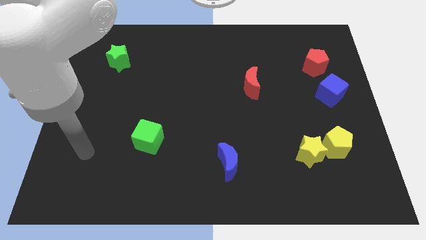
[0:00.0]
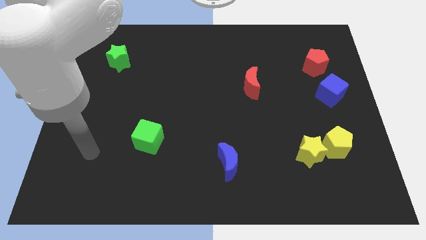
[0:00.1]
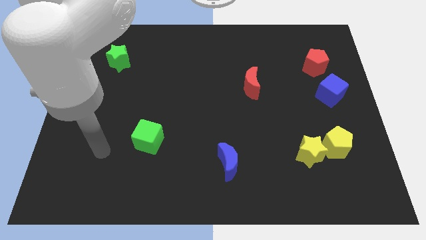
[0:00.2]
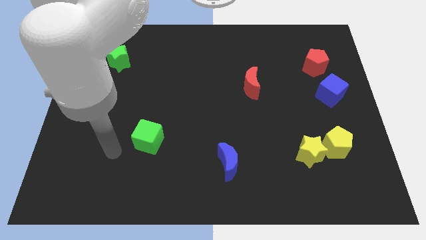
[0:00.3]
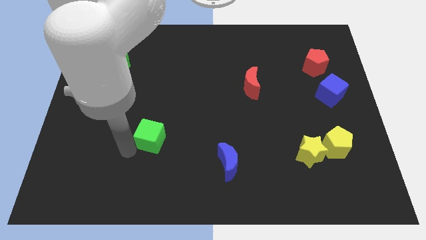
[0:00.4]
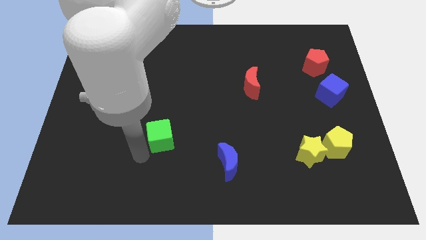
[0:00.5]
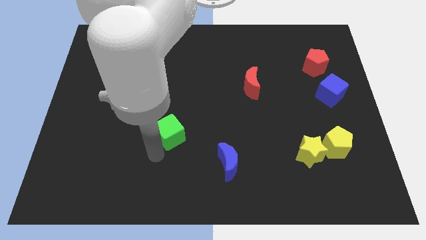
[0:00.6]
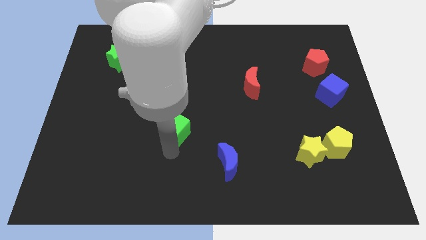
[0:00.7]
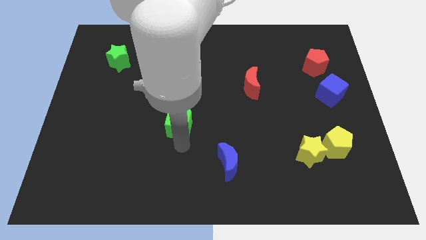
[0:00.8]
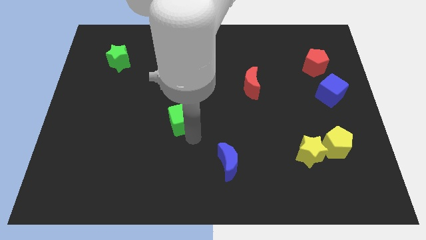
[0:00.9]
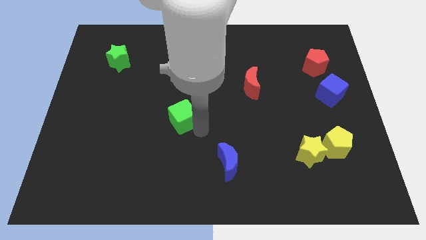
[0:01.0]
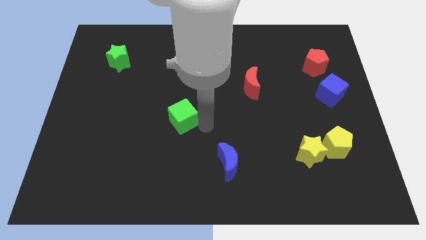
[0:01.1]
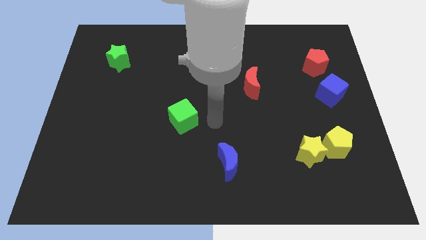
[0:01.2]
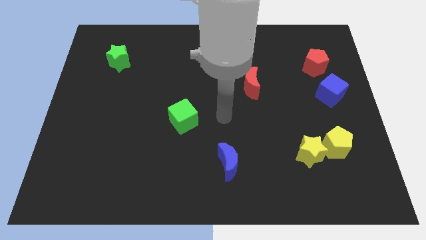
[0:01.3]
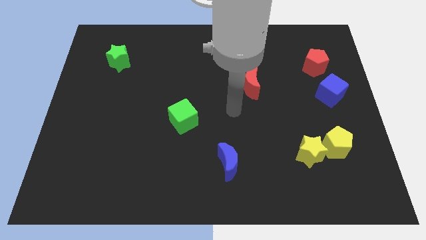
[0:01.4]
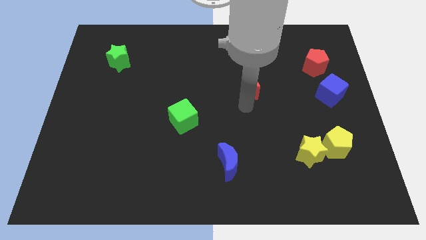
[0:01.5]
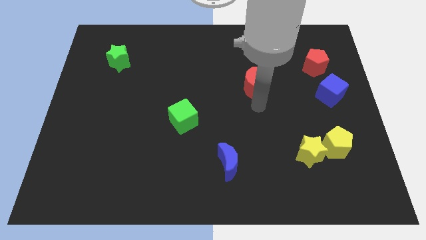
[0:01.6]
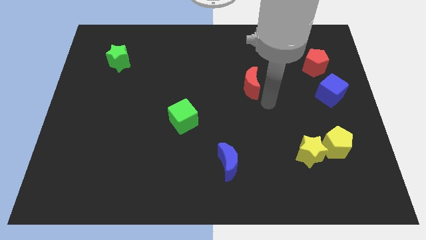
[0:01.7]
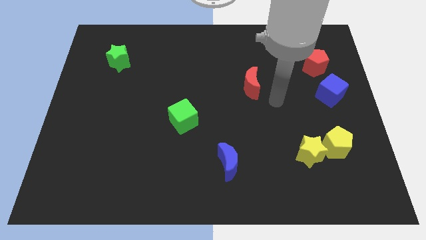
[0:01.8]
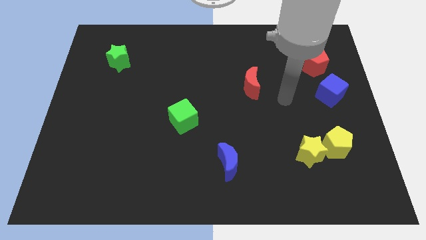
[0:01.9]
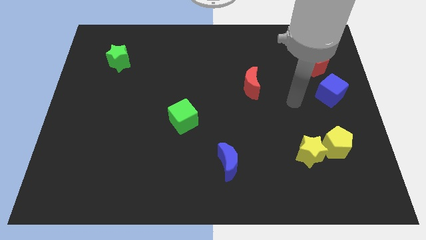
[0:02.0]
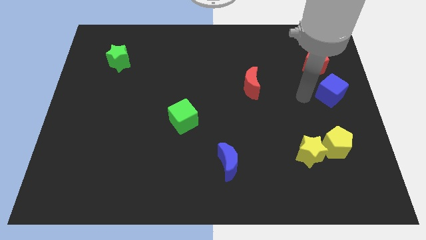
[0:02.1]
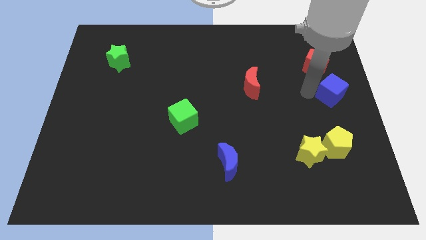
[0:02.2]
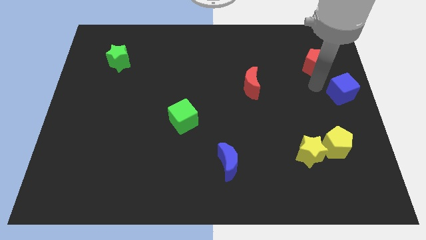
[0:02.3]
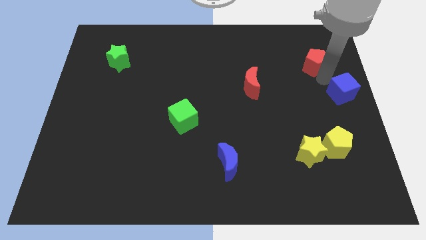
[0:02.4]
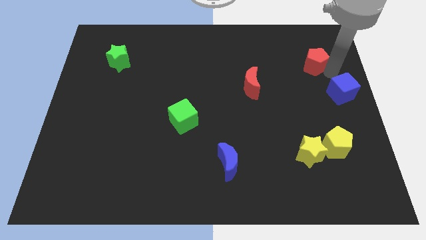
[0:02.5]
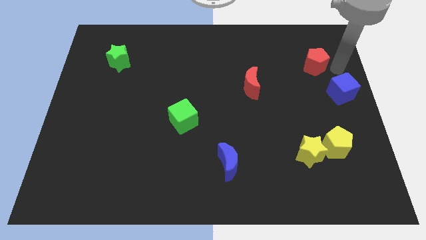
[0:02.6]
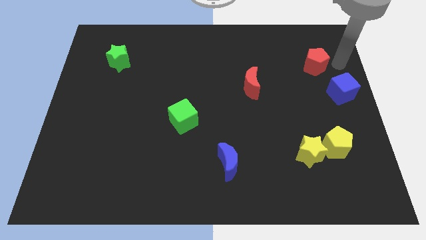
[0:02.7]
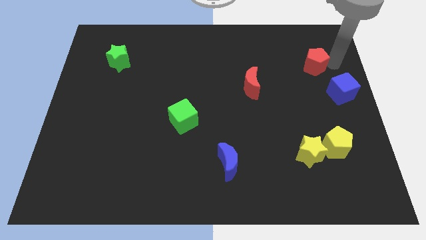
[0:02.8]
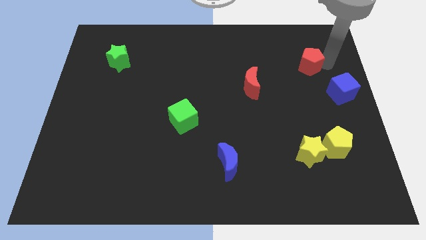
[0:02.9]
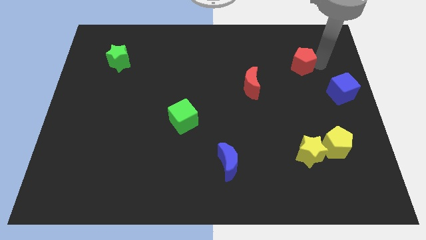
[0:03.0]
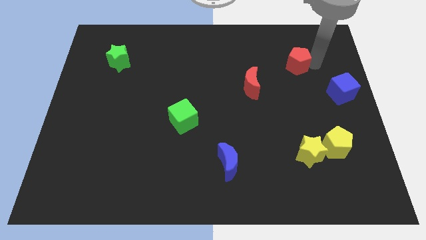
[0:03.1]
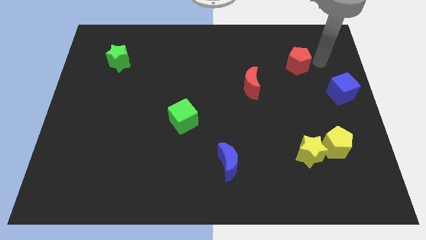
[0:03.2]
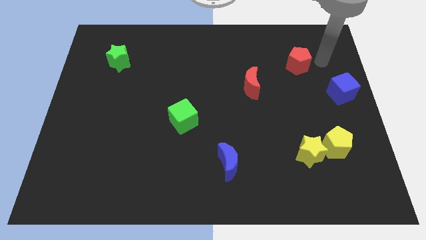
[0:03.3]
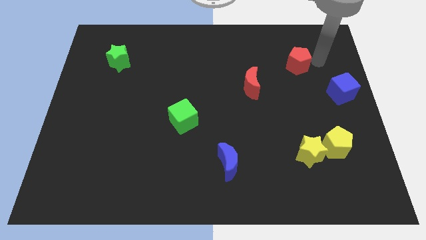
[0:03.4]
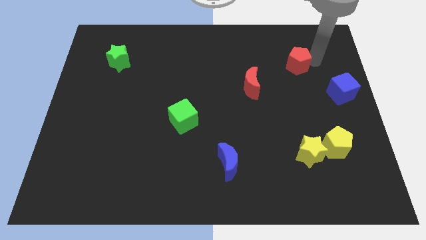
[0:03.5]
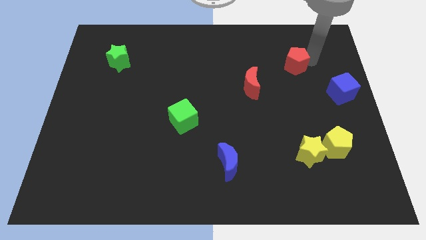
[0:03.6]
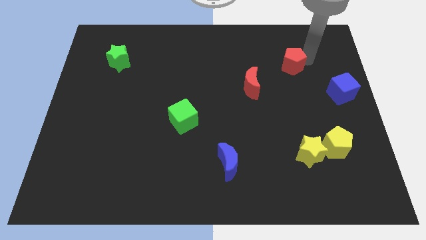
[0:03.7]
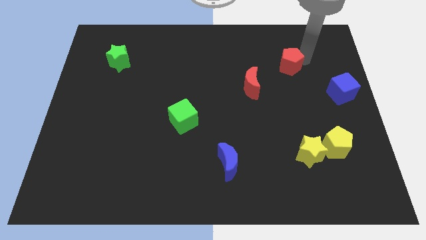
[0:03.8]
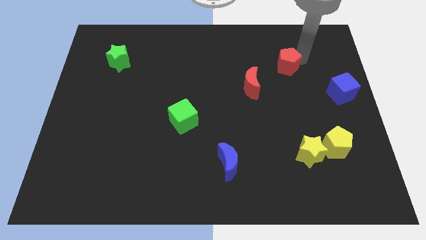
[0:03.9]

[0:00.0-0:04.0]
slightly move the red pentagon to the left

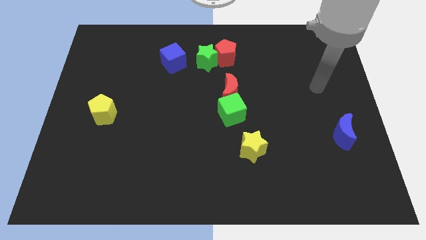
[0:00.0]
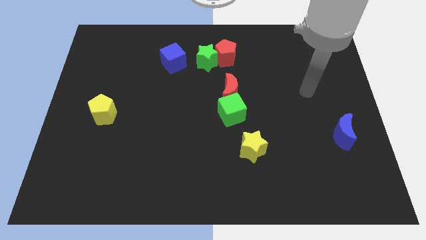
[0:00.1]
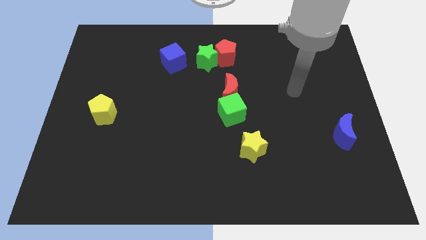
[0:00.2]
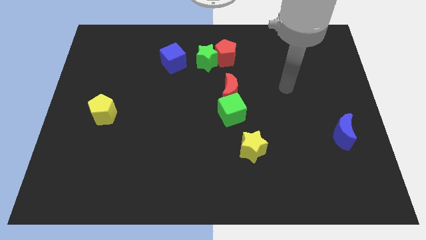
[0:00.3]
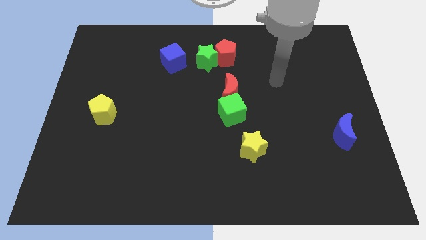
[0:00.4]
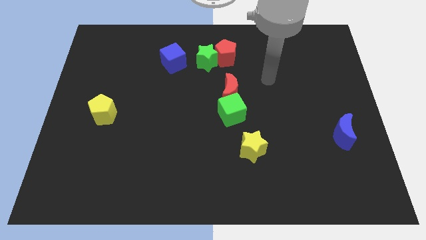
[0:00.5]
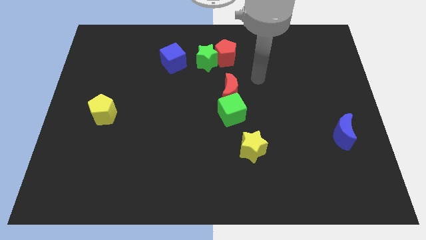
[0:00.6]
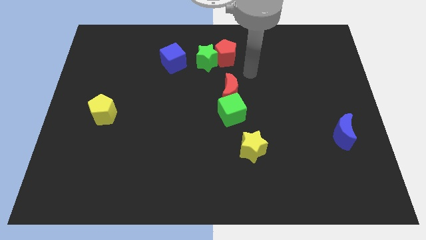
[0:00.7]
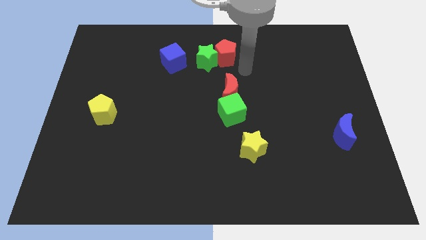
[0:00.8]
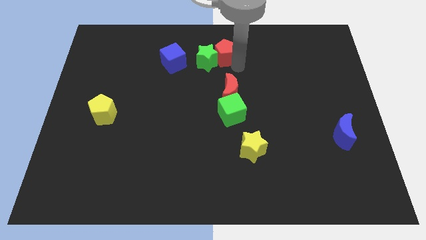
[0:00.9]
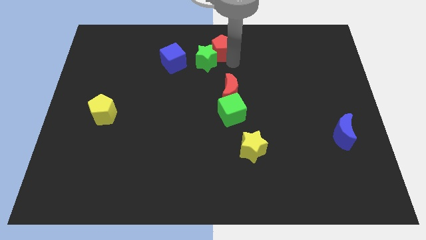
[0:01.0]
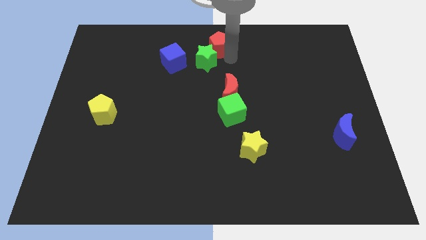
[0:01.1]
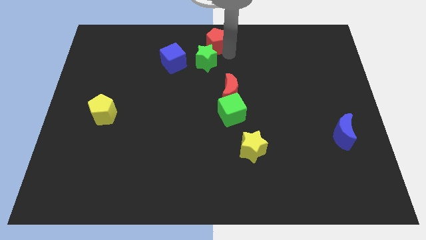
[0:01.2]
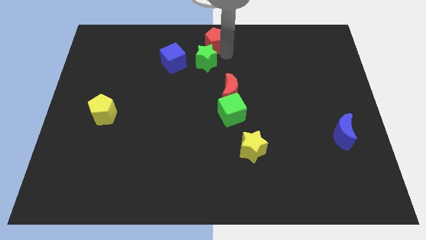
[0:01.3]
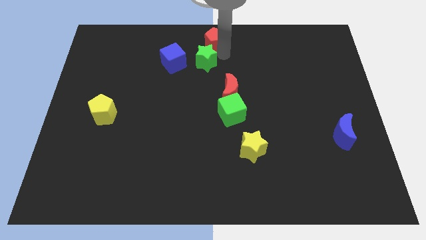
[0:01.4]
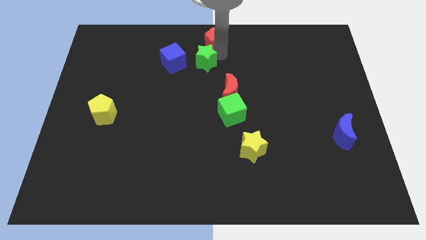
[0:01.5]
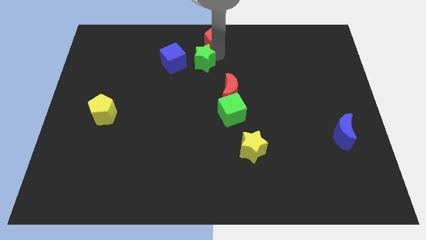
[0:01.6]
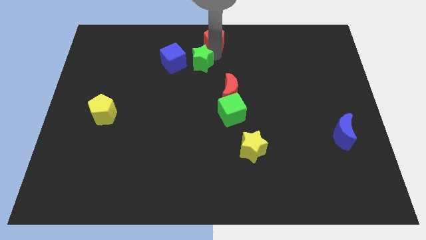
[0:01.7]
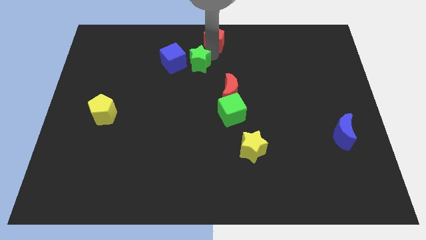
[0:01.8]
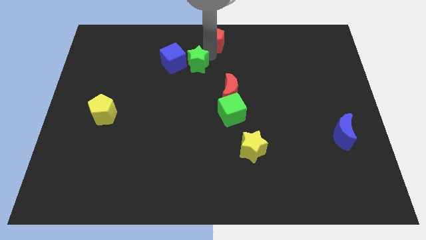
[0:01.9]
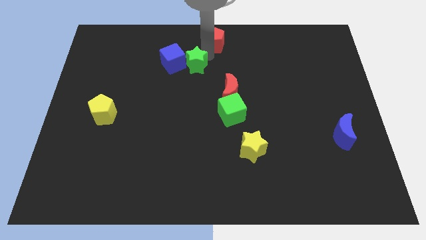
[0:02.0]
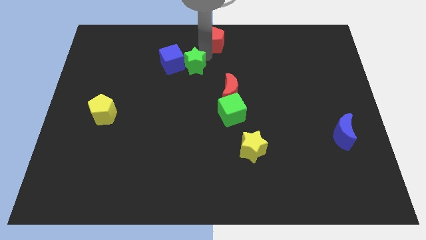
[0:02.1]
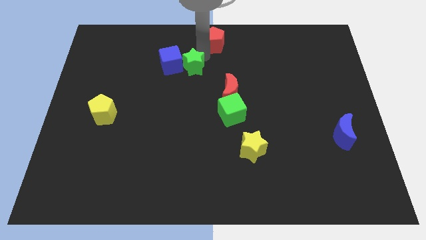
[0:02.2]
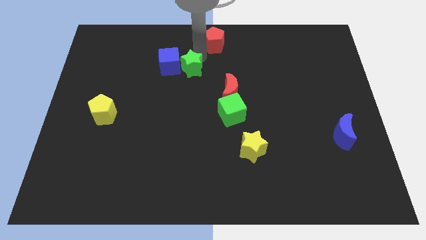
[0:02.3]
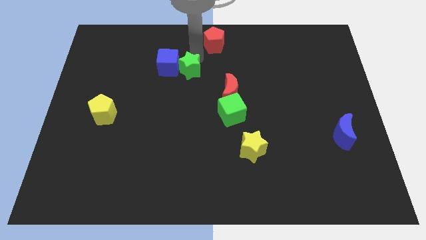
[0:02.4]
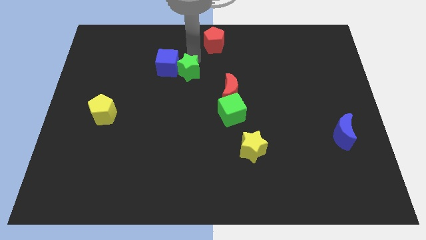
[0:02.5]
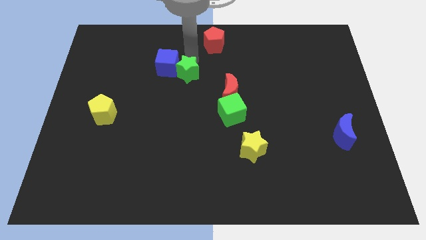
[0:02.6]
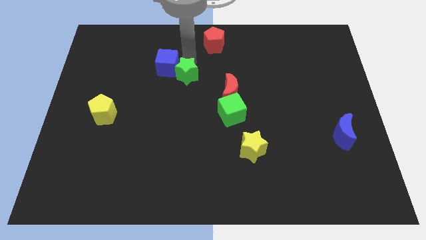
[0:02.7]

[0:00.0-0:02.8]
slide the green star slightly downwards and left diagonally

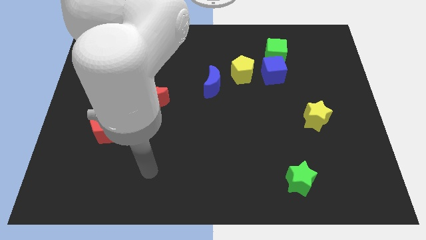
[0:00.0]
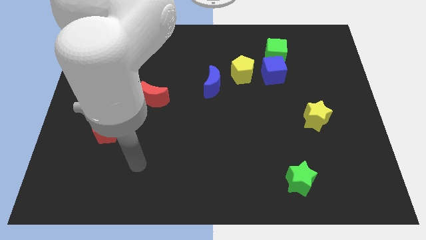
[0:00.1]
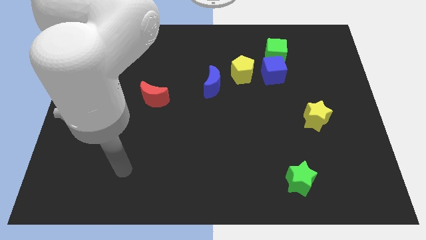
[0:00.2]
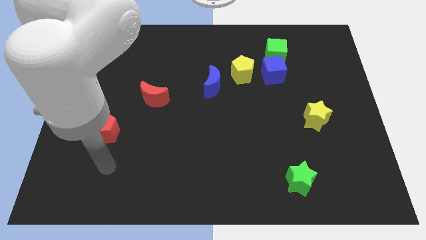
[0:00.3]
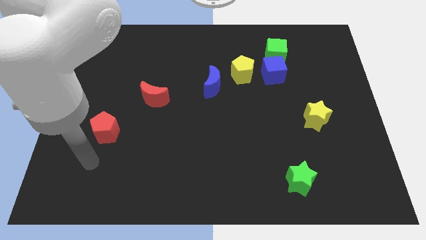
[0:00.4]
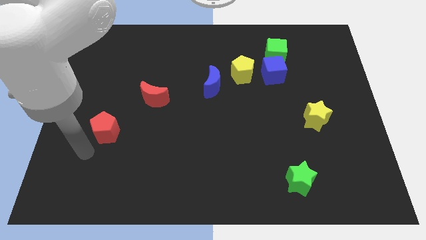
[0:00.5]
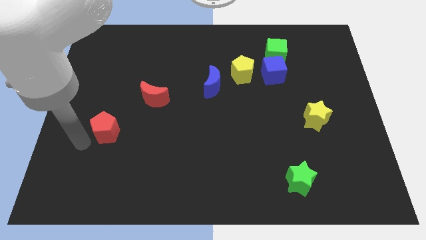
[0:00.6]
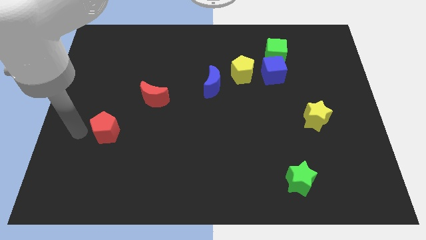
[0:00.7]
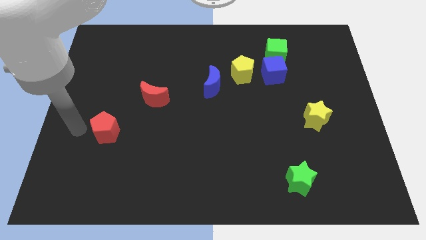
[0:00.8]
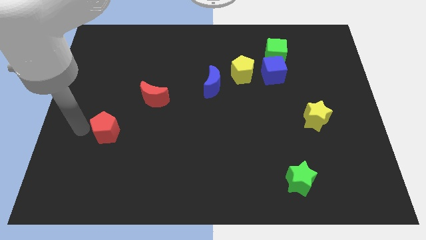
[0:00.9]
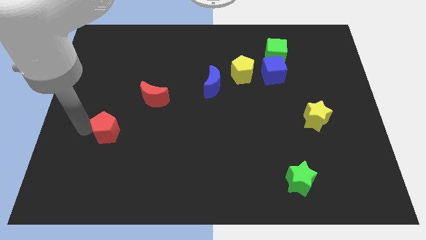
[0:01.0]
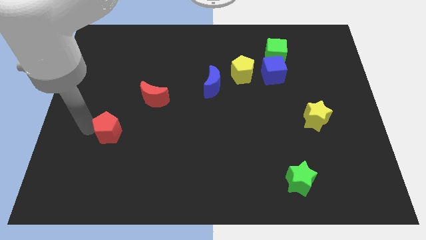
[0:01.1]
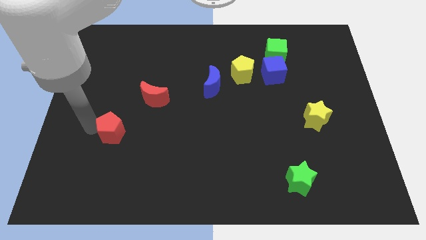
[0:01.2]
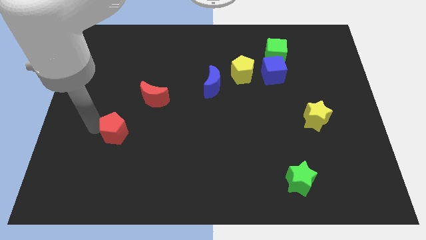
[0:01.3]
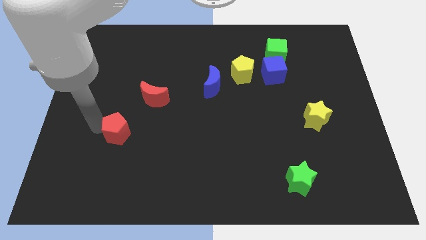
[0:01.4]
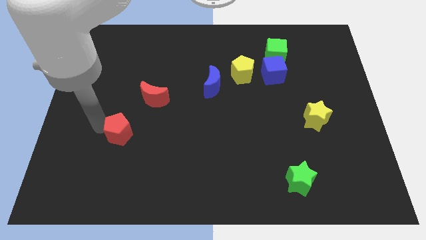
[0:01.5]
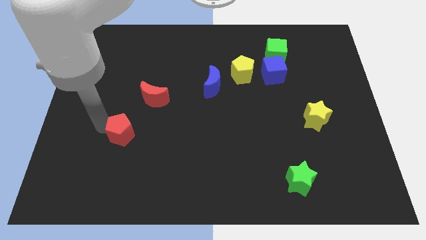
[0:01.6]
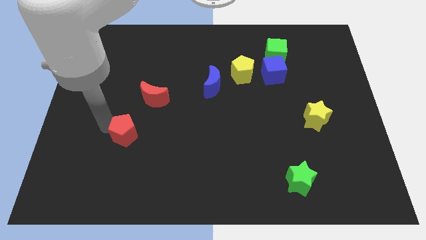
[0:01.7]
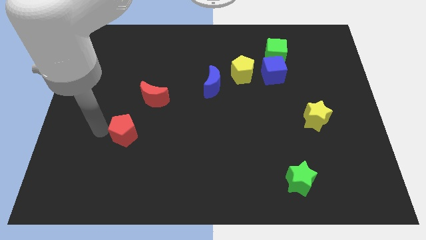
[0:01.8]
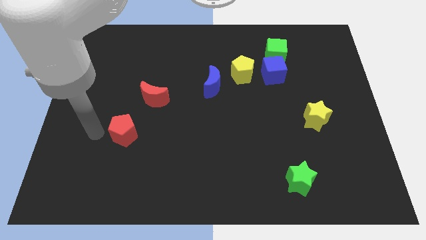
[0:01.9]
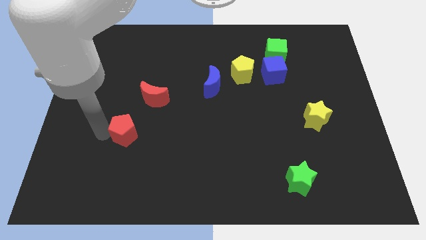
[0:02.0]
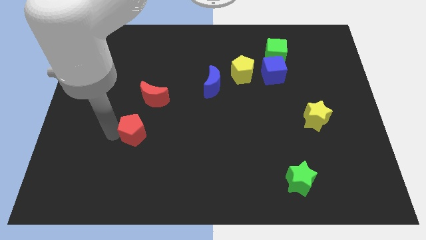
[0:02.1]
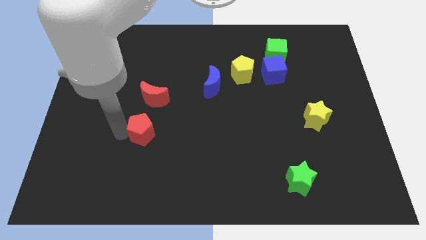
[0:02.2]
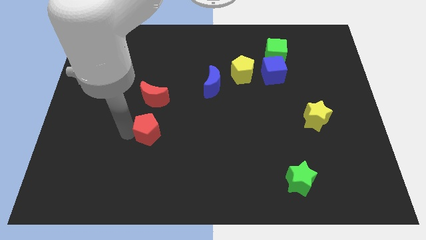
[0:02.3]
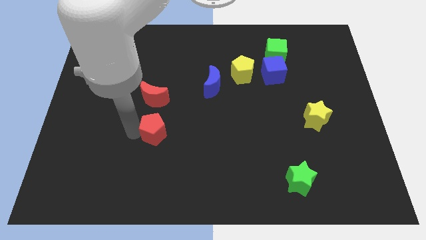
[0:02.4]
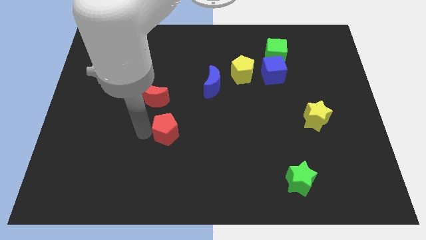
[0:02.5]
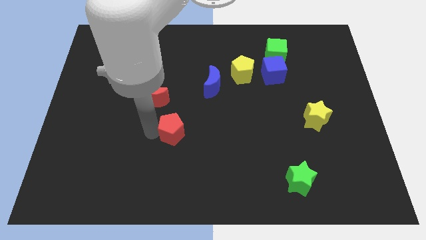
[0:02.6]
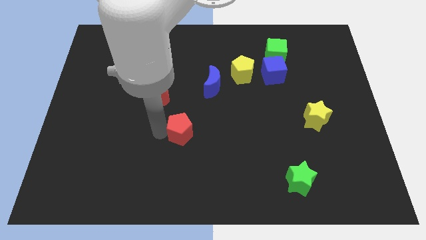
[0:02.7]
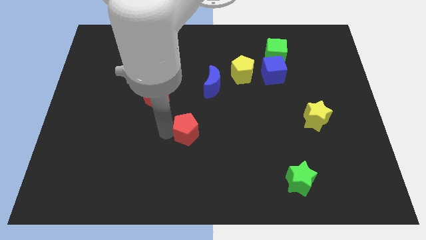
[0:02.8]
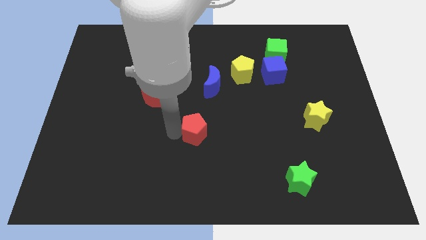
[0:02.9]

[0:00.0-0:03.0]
move the red pentagon to the right
